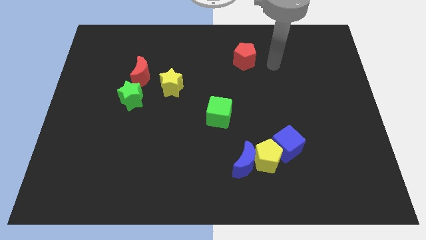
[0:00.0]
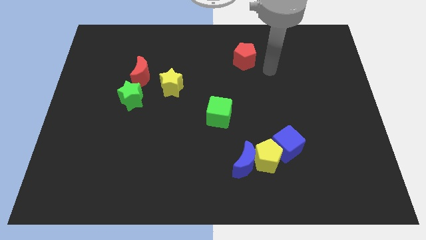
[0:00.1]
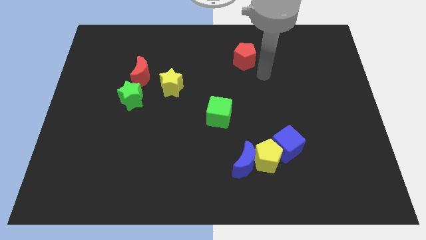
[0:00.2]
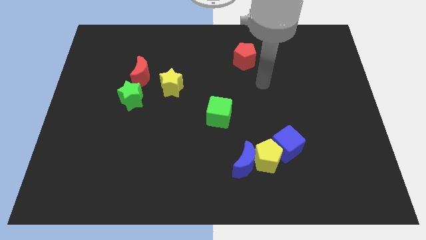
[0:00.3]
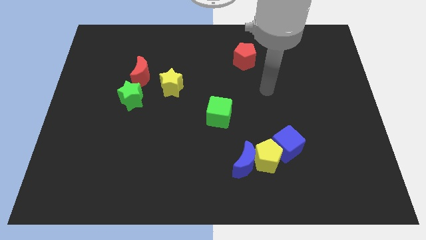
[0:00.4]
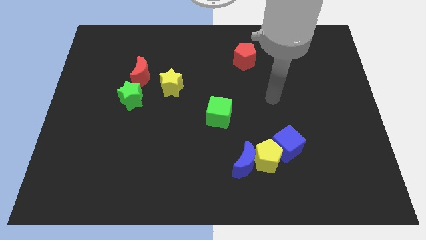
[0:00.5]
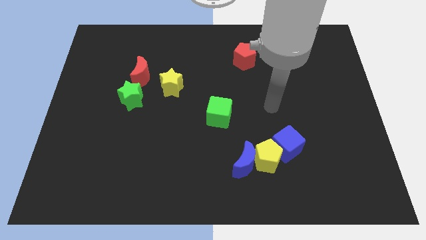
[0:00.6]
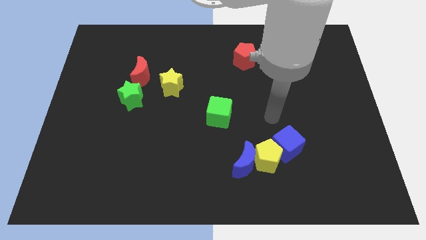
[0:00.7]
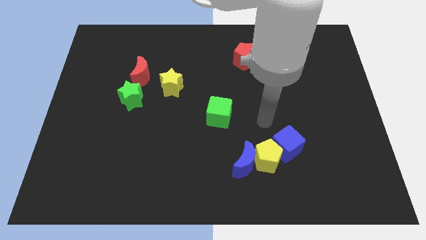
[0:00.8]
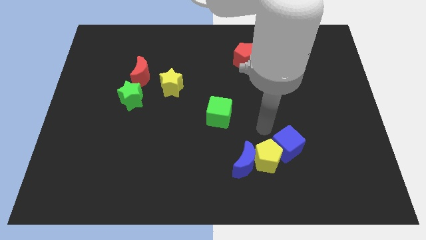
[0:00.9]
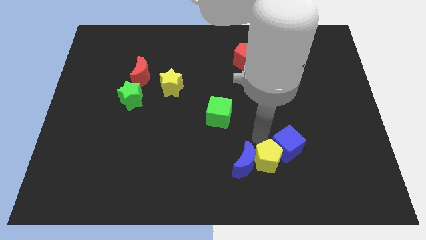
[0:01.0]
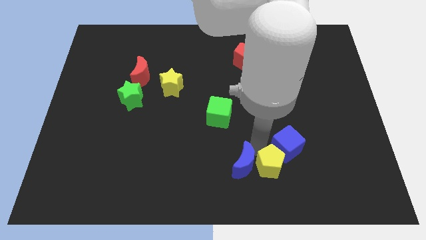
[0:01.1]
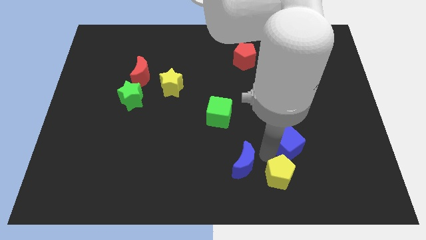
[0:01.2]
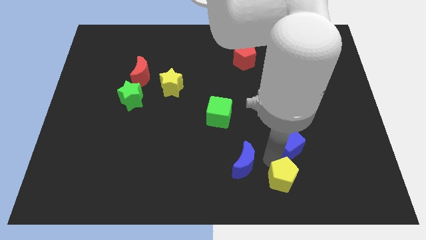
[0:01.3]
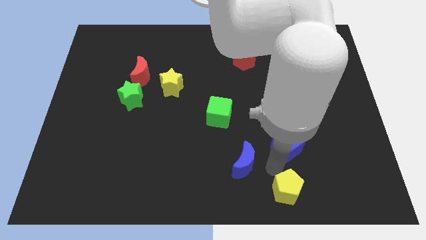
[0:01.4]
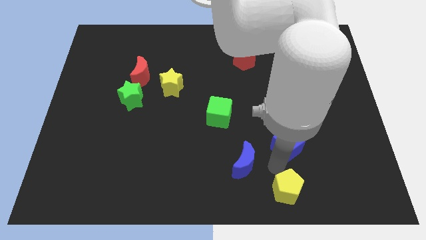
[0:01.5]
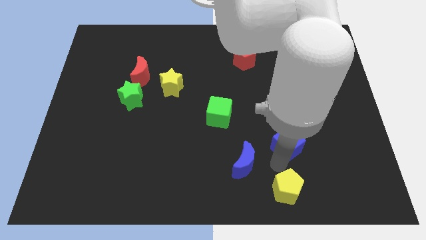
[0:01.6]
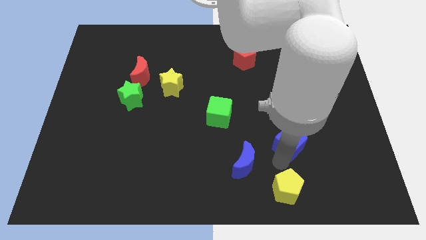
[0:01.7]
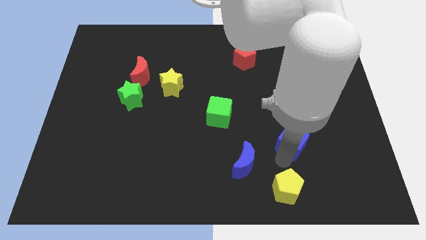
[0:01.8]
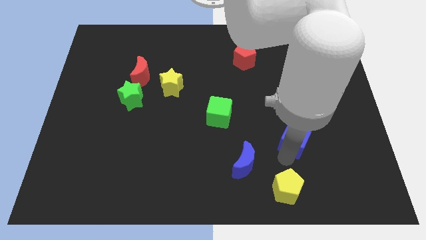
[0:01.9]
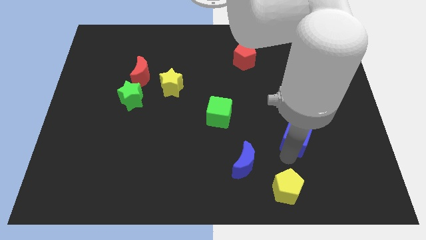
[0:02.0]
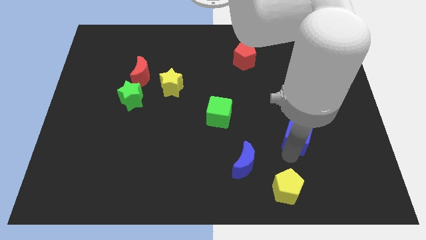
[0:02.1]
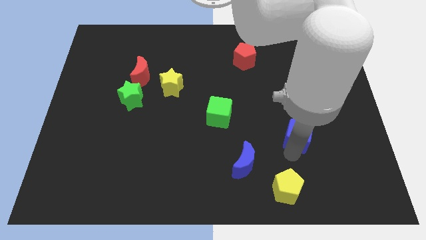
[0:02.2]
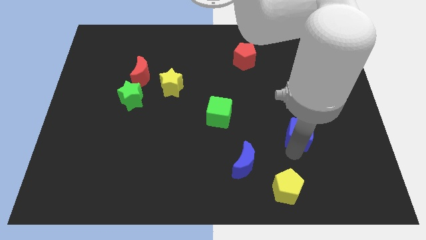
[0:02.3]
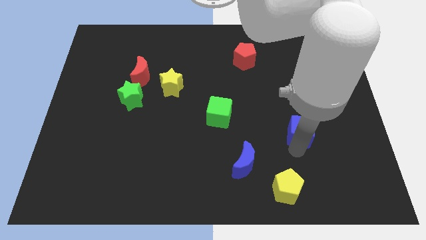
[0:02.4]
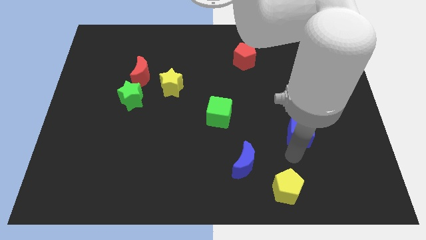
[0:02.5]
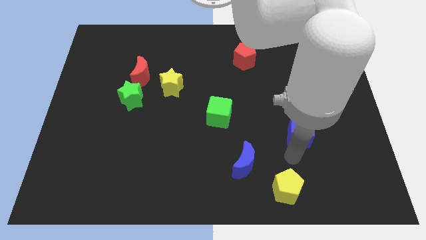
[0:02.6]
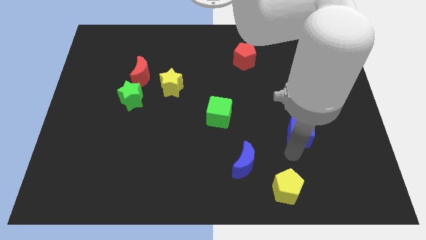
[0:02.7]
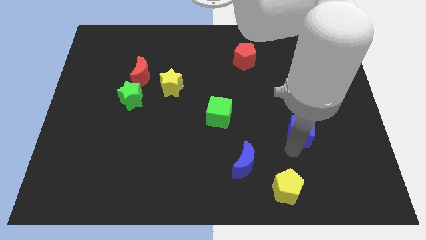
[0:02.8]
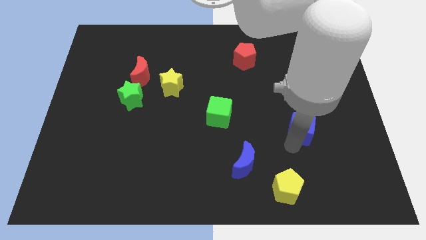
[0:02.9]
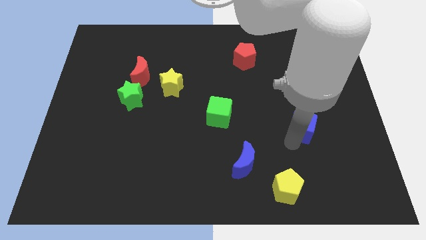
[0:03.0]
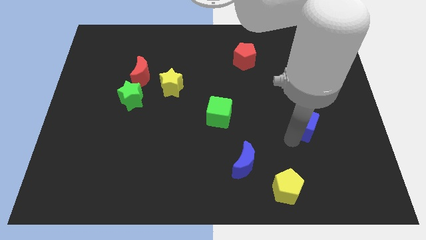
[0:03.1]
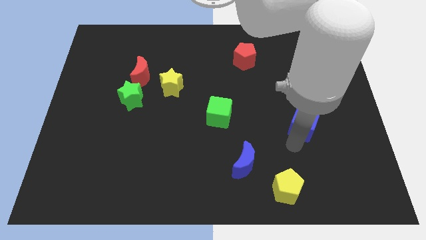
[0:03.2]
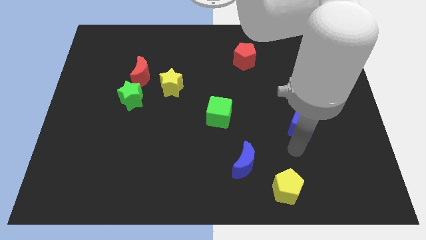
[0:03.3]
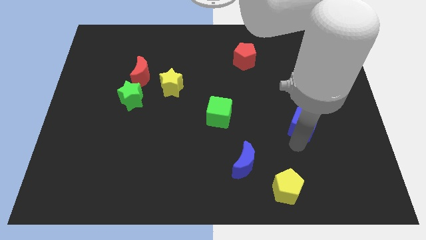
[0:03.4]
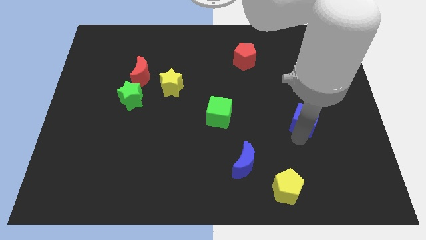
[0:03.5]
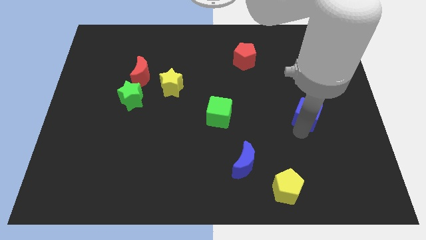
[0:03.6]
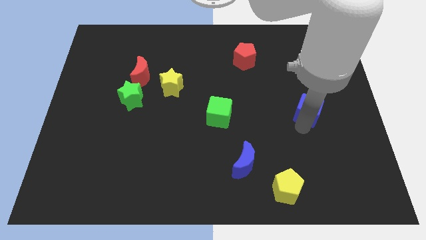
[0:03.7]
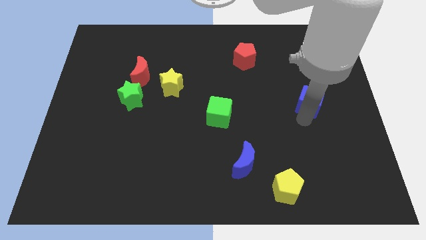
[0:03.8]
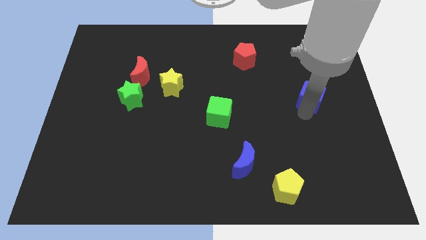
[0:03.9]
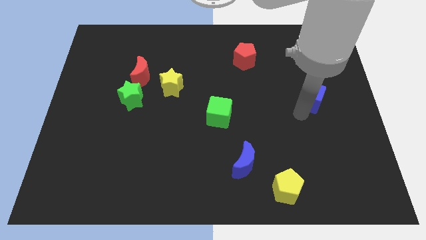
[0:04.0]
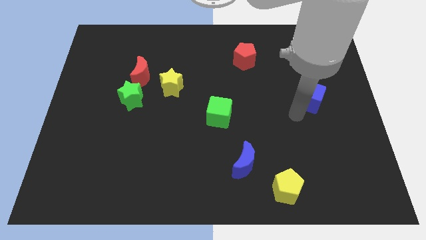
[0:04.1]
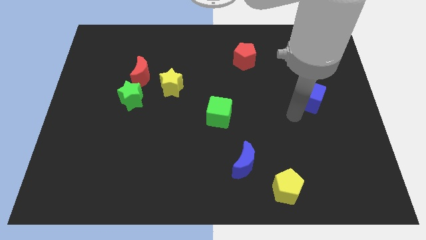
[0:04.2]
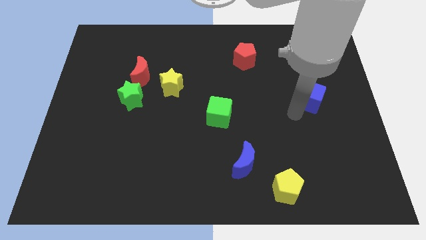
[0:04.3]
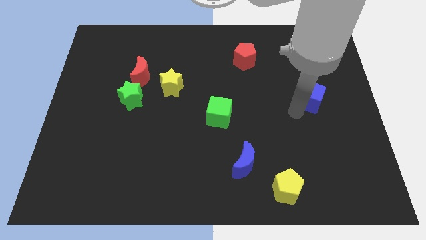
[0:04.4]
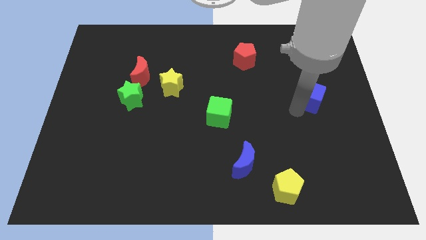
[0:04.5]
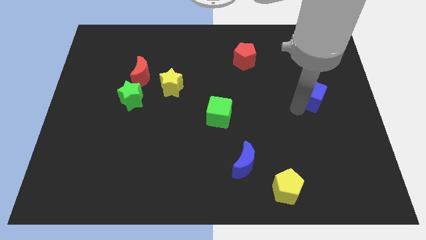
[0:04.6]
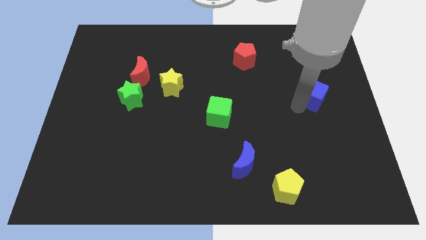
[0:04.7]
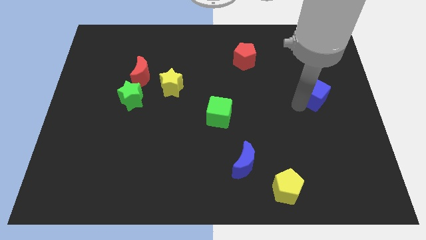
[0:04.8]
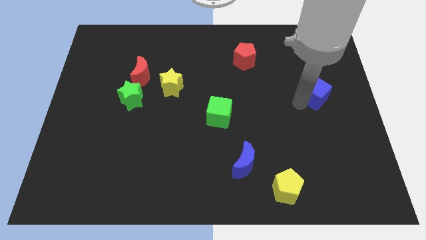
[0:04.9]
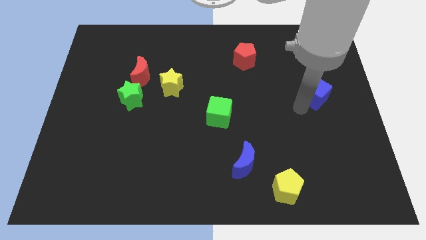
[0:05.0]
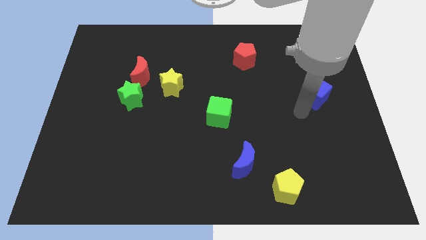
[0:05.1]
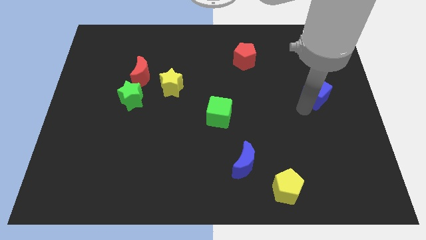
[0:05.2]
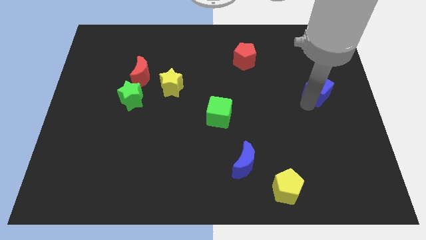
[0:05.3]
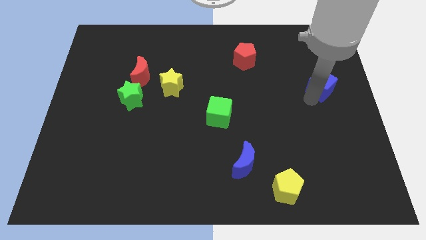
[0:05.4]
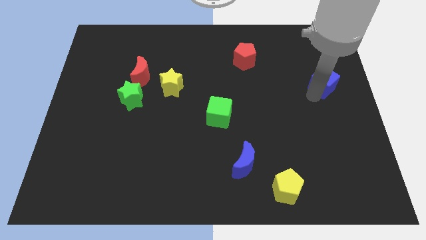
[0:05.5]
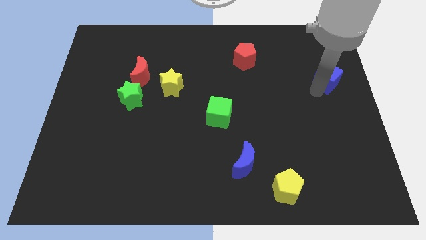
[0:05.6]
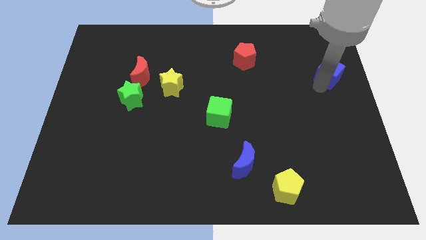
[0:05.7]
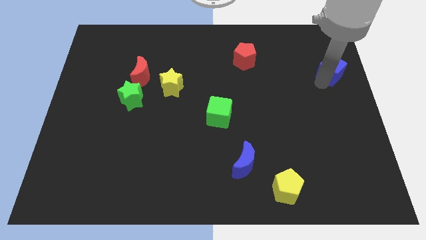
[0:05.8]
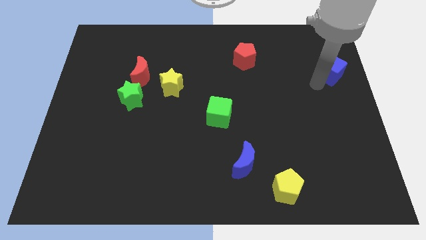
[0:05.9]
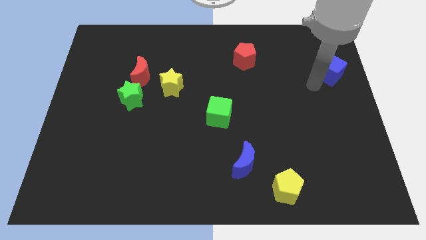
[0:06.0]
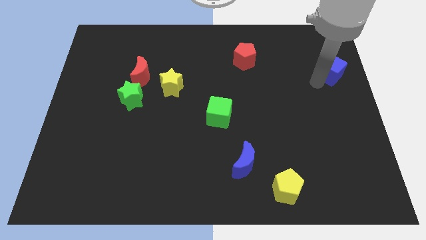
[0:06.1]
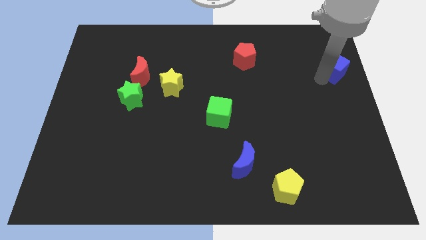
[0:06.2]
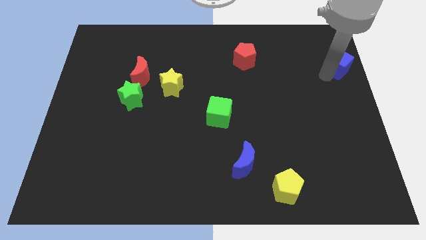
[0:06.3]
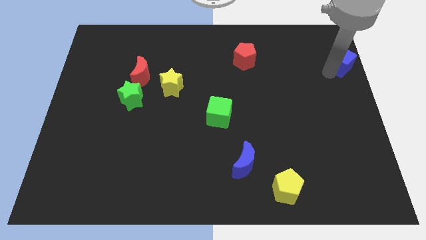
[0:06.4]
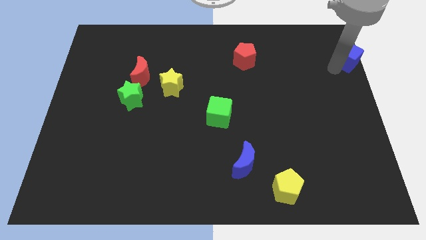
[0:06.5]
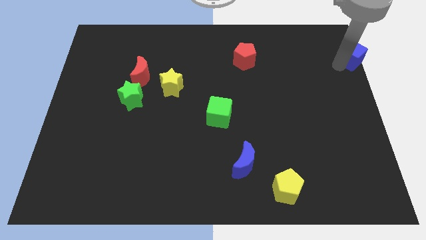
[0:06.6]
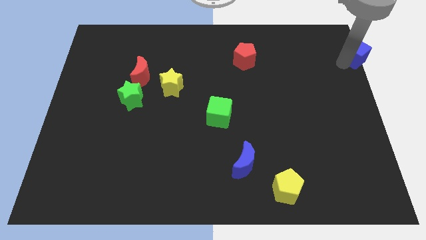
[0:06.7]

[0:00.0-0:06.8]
put the blue cube to the top right of the board
